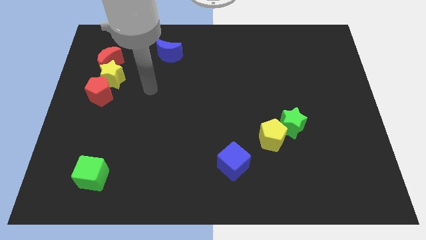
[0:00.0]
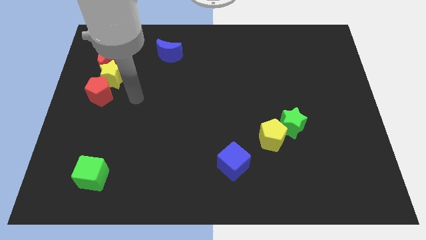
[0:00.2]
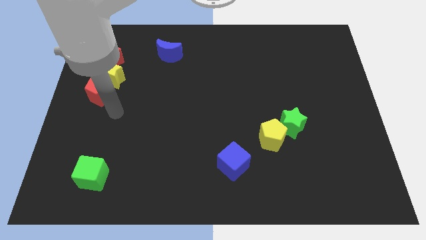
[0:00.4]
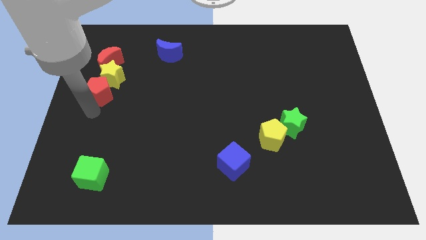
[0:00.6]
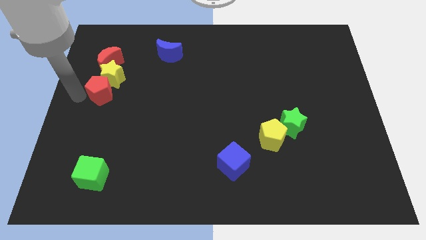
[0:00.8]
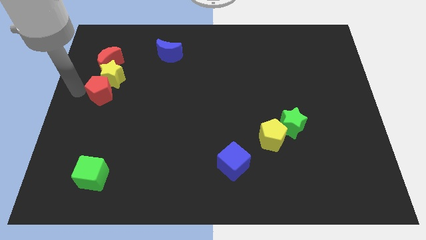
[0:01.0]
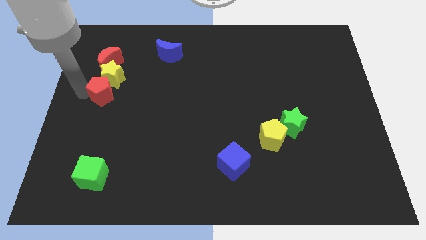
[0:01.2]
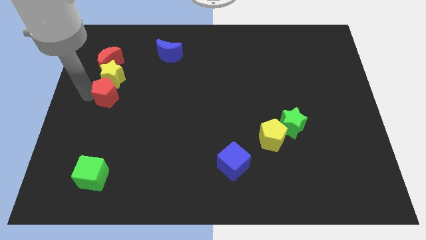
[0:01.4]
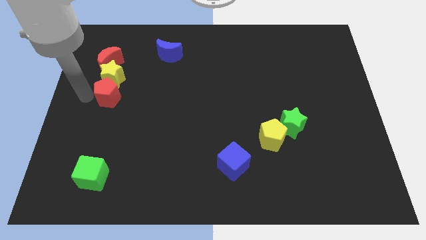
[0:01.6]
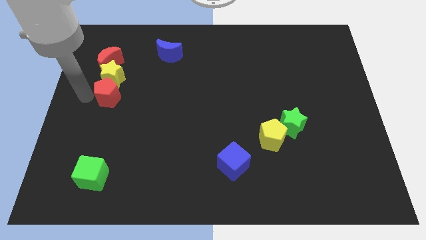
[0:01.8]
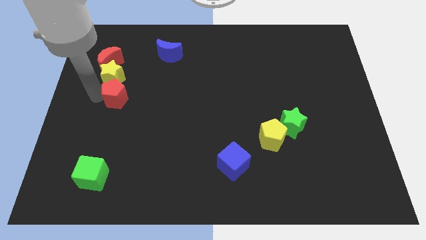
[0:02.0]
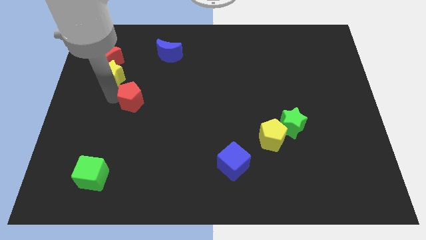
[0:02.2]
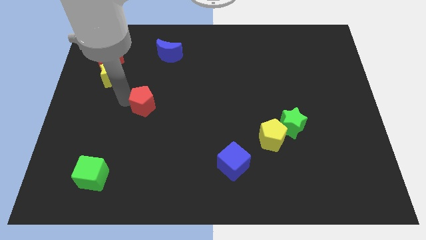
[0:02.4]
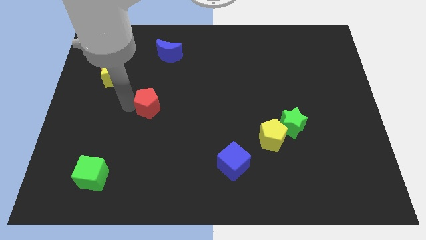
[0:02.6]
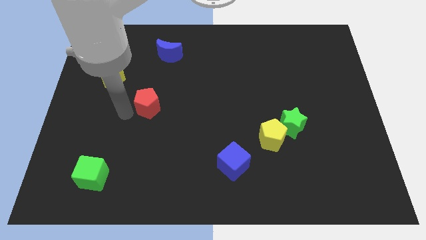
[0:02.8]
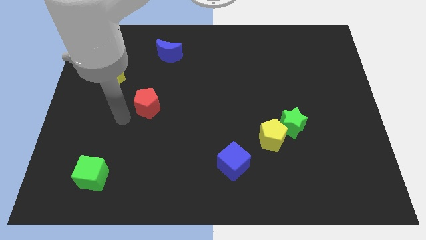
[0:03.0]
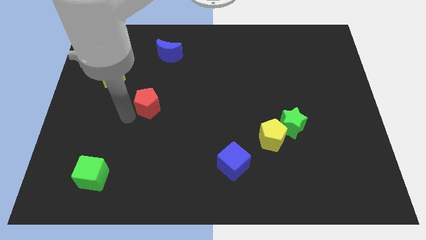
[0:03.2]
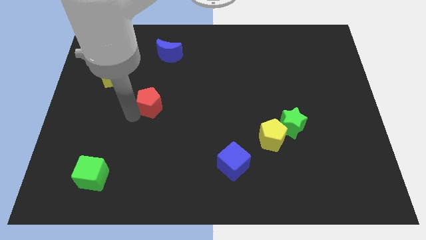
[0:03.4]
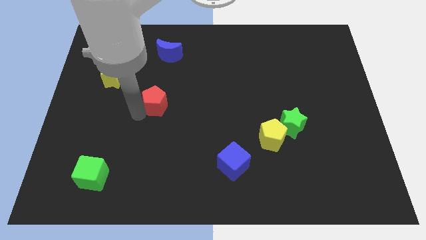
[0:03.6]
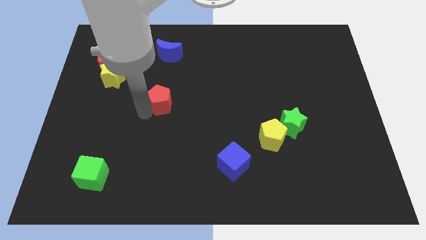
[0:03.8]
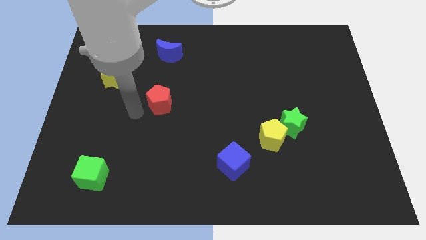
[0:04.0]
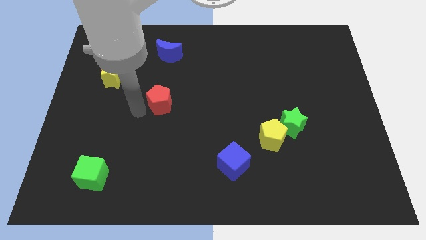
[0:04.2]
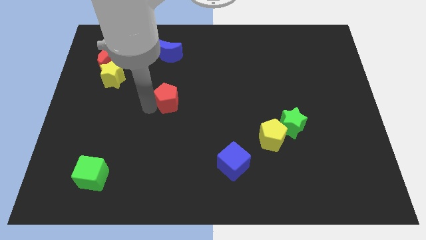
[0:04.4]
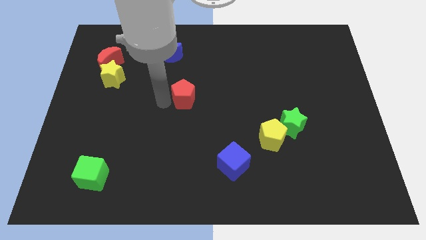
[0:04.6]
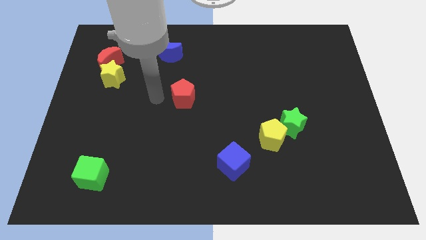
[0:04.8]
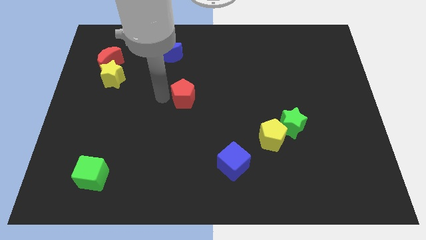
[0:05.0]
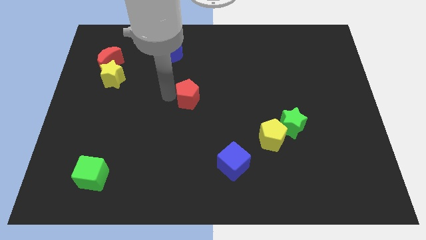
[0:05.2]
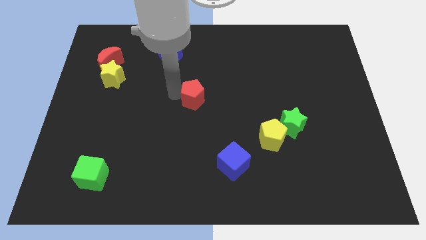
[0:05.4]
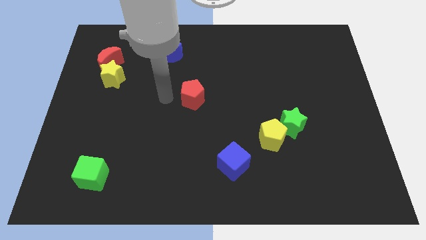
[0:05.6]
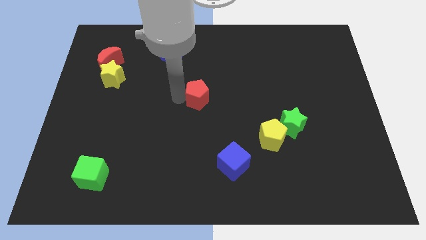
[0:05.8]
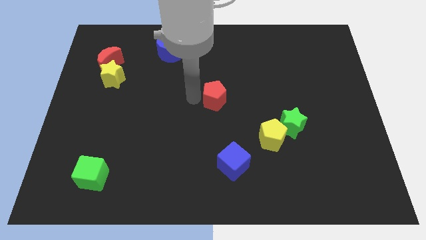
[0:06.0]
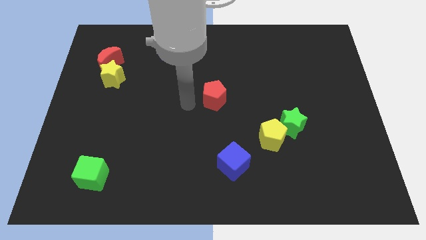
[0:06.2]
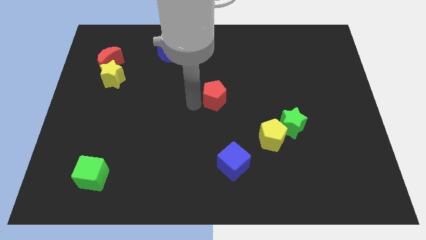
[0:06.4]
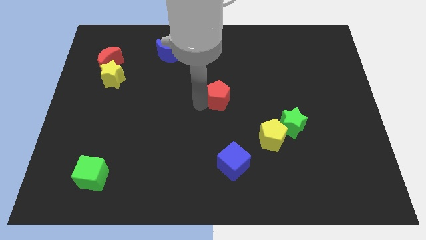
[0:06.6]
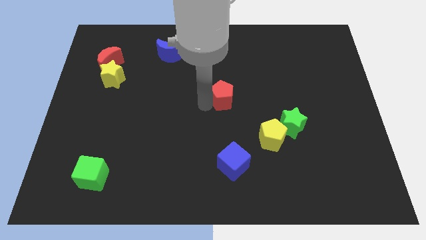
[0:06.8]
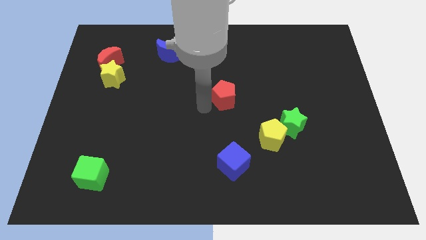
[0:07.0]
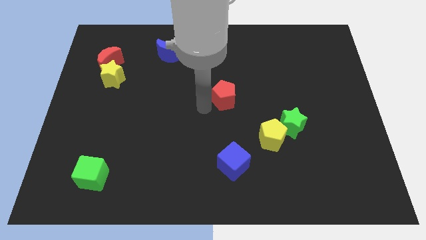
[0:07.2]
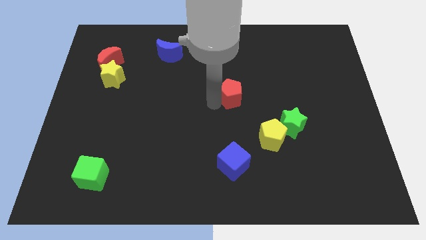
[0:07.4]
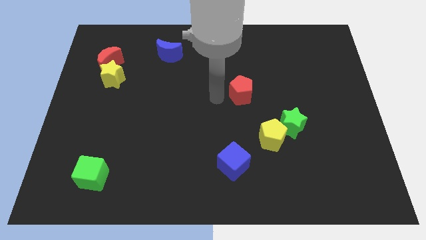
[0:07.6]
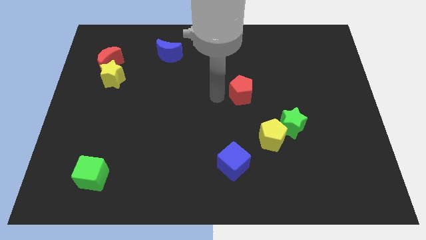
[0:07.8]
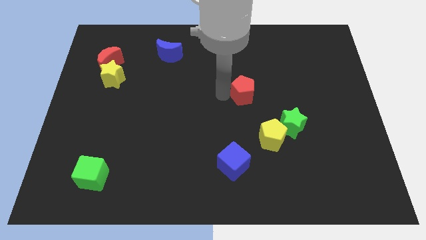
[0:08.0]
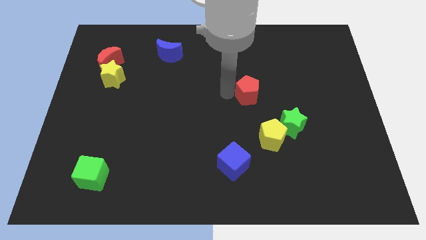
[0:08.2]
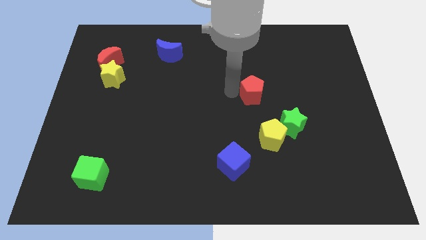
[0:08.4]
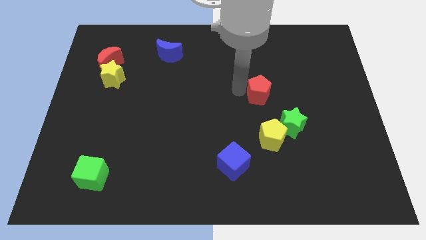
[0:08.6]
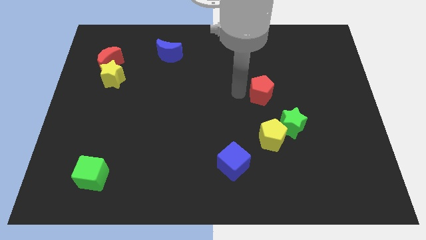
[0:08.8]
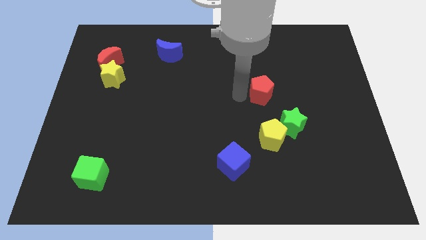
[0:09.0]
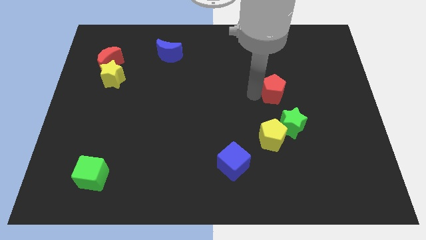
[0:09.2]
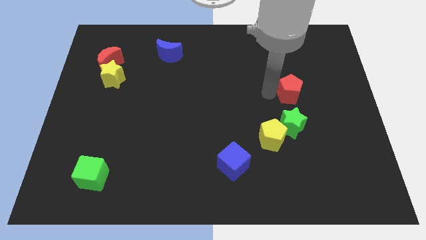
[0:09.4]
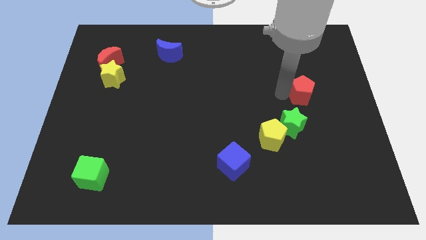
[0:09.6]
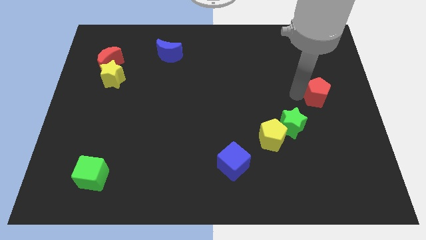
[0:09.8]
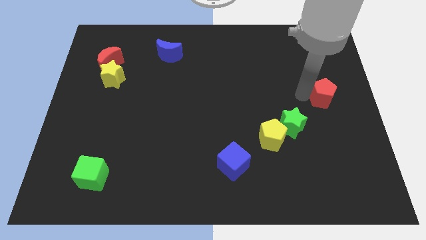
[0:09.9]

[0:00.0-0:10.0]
put the red pentagon to the right side of the board

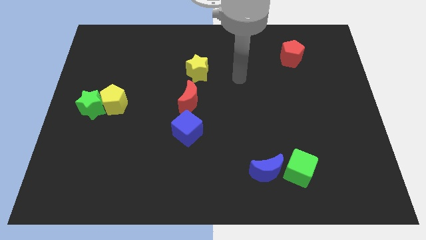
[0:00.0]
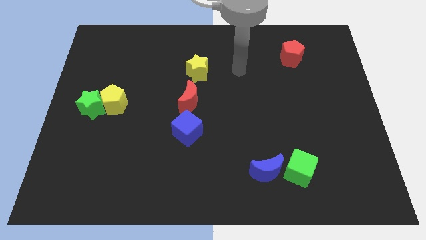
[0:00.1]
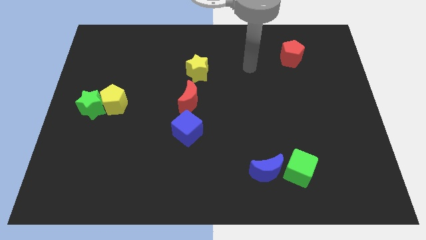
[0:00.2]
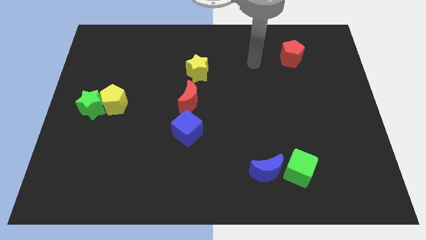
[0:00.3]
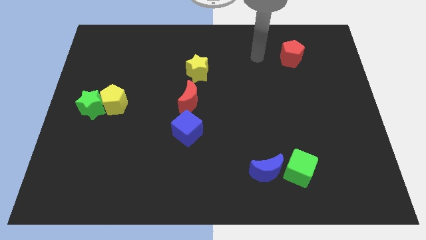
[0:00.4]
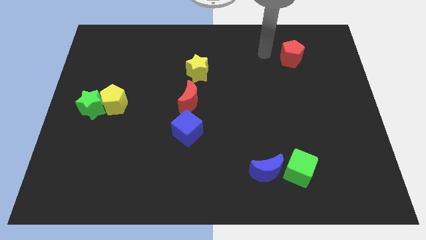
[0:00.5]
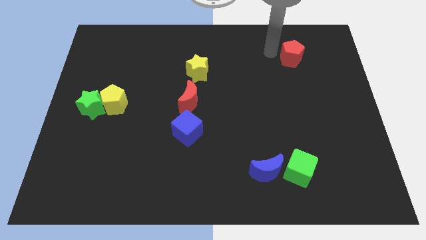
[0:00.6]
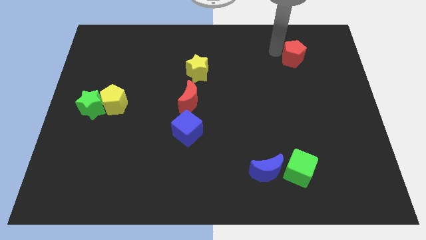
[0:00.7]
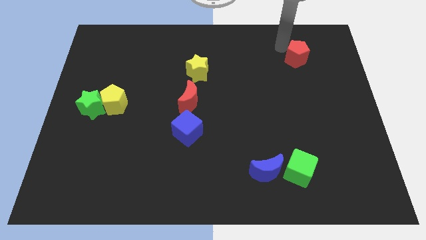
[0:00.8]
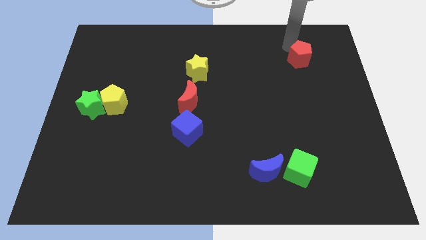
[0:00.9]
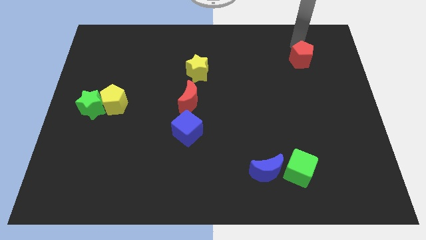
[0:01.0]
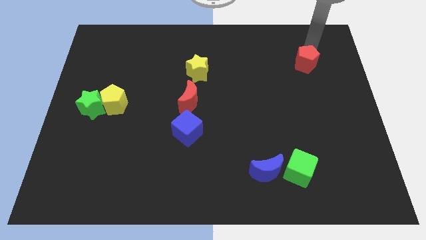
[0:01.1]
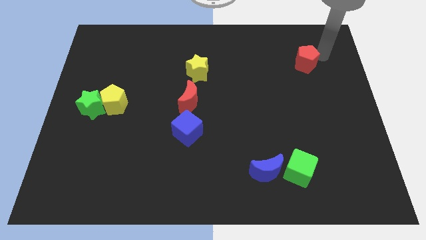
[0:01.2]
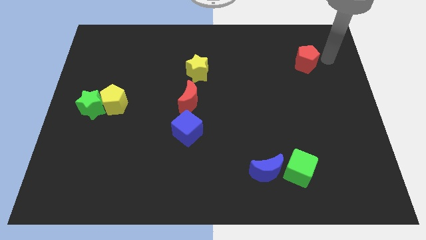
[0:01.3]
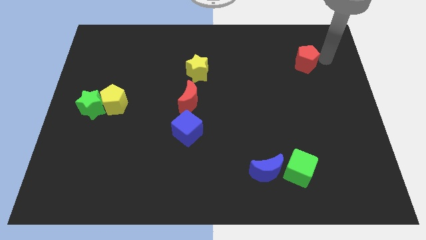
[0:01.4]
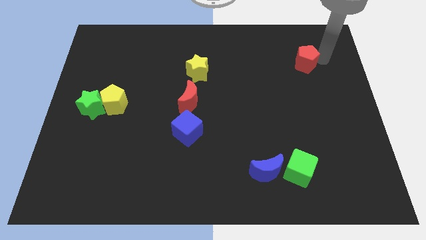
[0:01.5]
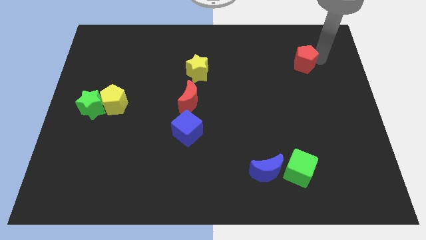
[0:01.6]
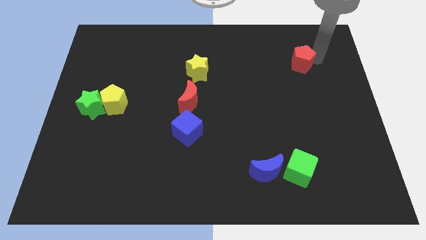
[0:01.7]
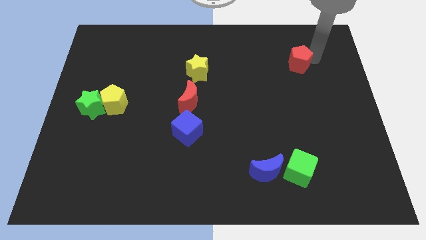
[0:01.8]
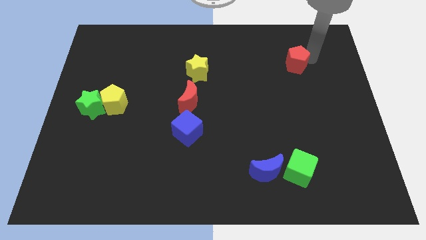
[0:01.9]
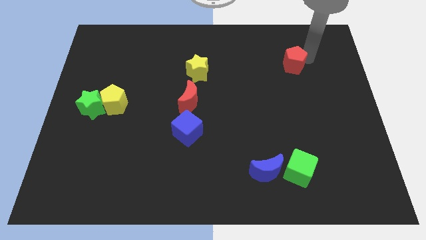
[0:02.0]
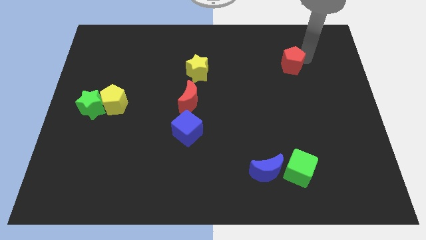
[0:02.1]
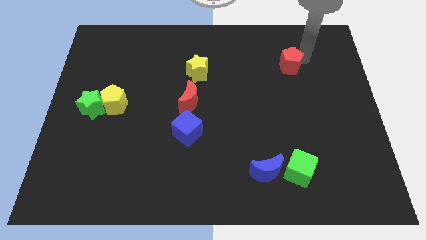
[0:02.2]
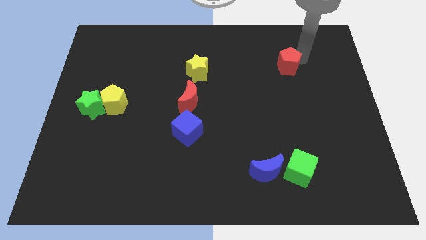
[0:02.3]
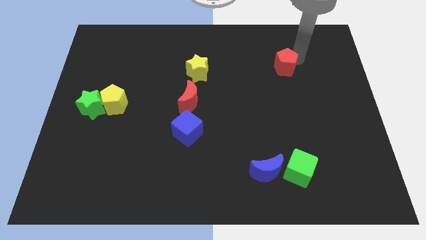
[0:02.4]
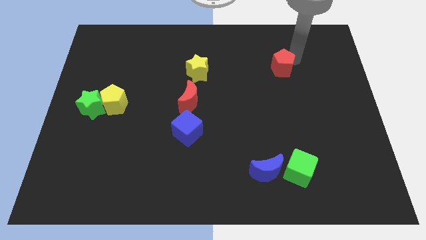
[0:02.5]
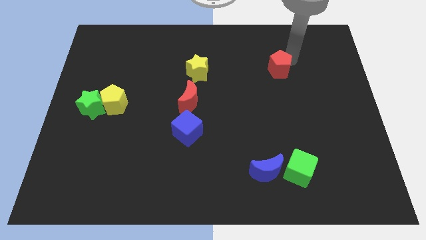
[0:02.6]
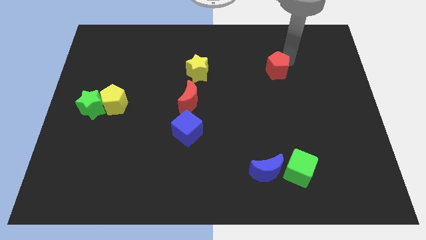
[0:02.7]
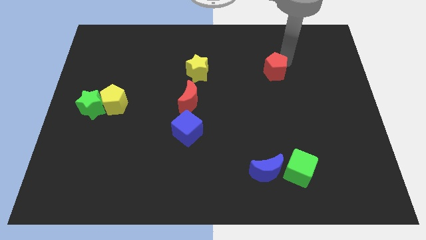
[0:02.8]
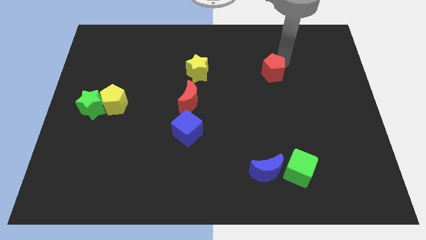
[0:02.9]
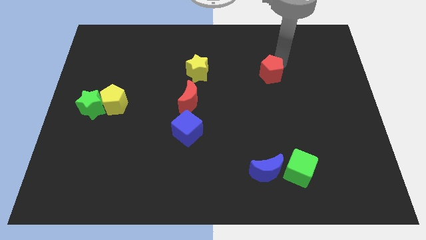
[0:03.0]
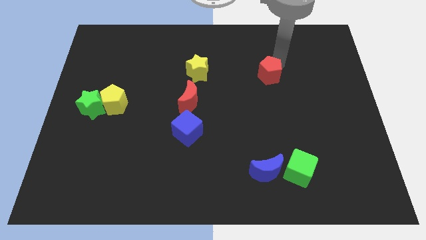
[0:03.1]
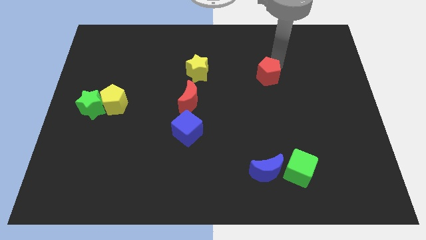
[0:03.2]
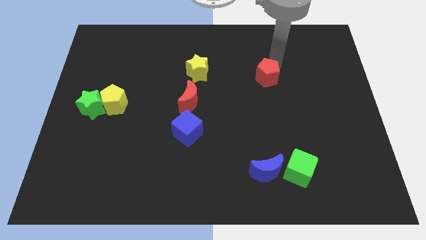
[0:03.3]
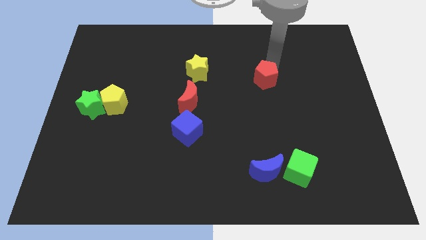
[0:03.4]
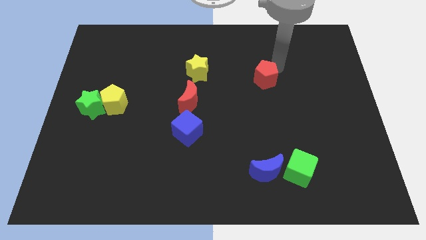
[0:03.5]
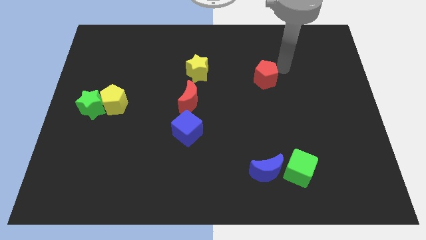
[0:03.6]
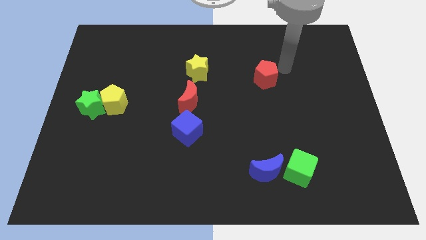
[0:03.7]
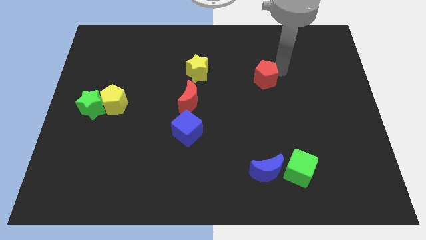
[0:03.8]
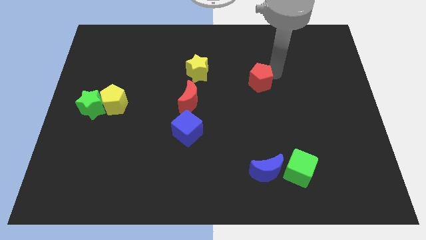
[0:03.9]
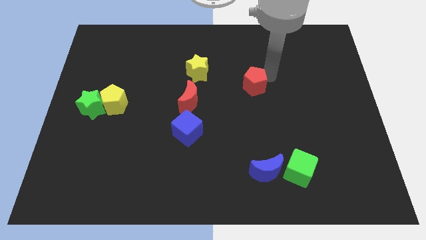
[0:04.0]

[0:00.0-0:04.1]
slide the red pentagon to the middle
